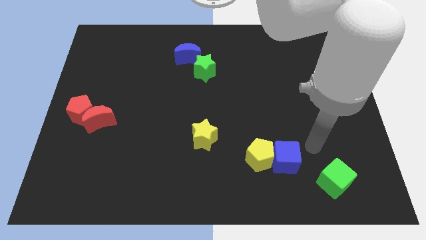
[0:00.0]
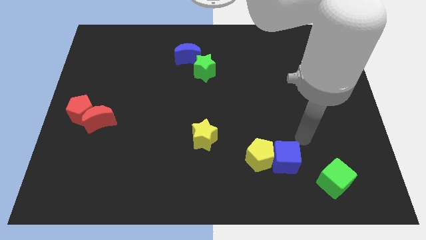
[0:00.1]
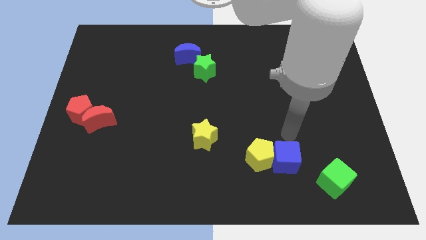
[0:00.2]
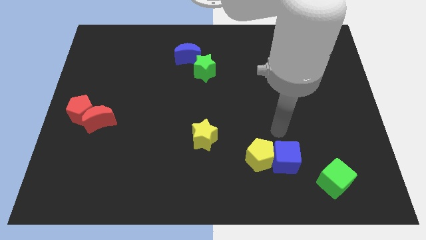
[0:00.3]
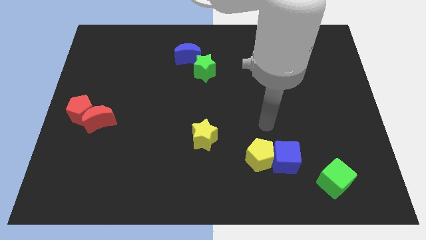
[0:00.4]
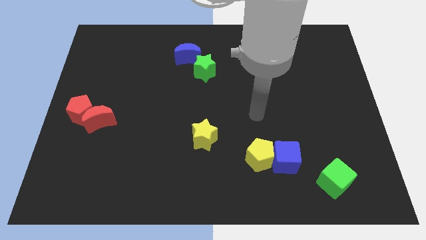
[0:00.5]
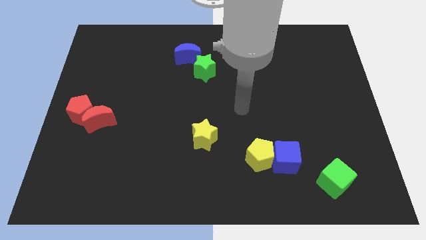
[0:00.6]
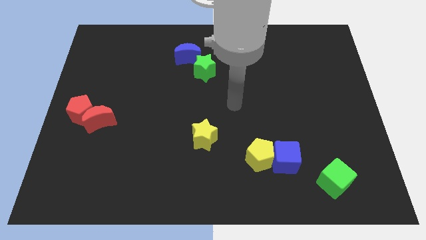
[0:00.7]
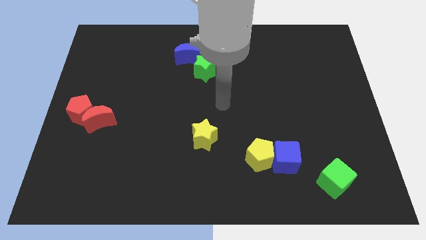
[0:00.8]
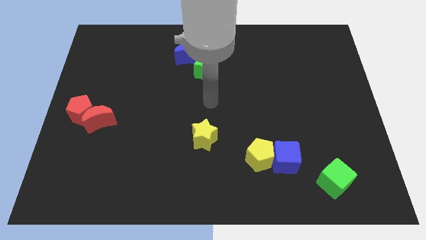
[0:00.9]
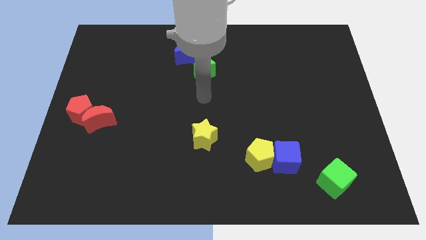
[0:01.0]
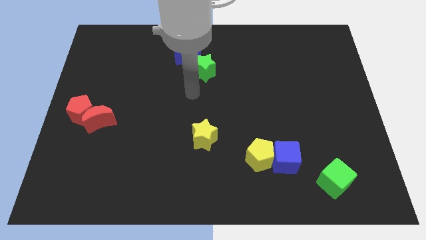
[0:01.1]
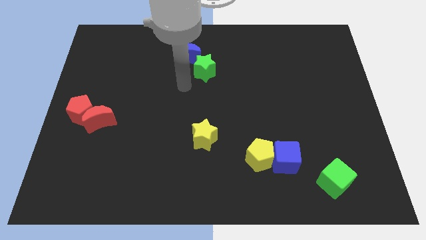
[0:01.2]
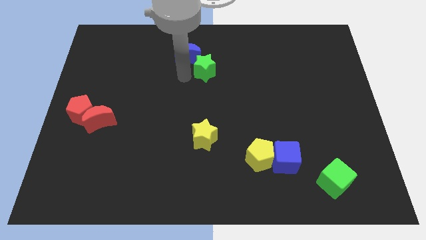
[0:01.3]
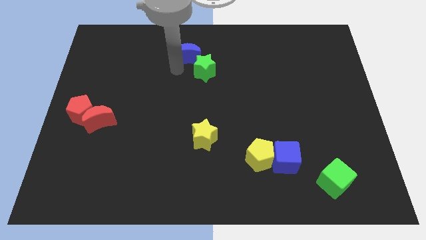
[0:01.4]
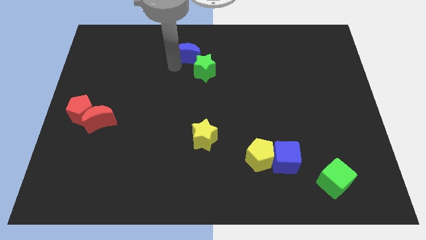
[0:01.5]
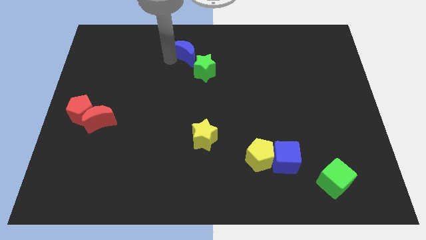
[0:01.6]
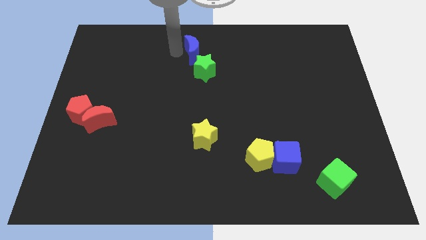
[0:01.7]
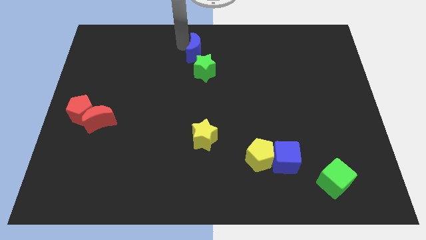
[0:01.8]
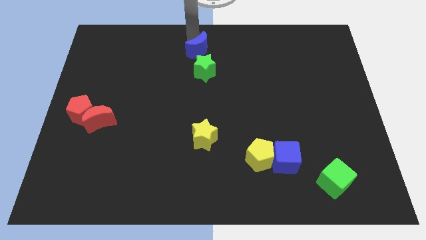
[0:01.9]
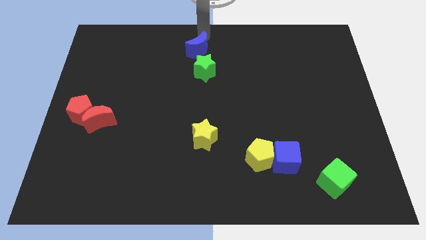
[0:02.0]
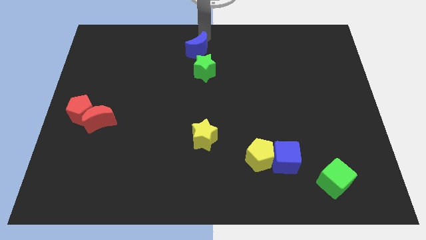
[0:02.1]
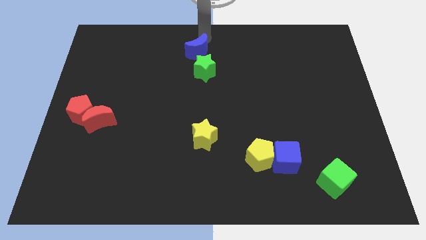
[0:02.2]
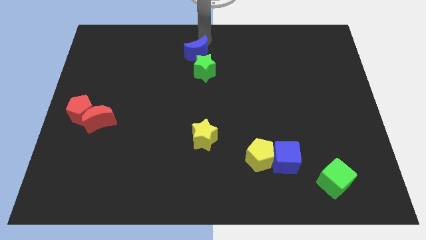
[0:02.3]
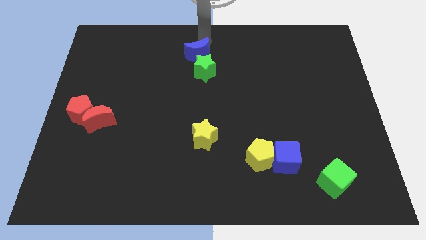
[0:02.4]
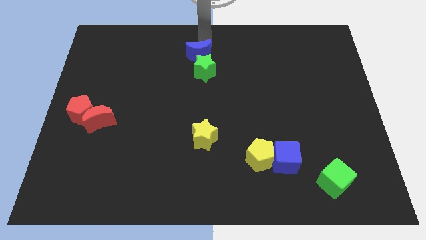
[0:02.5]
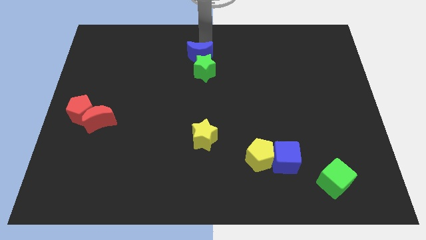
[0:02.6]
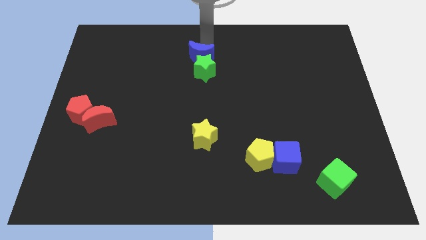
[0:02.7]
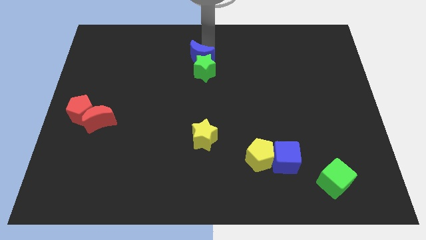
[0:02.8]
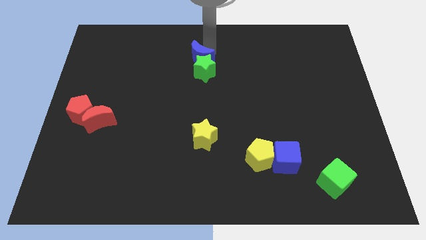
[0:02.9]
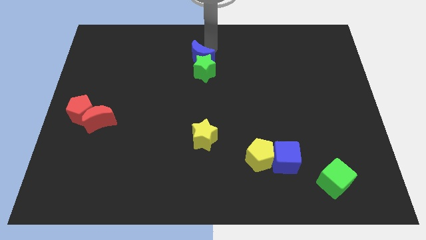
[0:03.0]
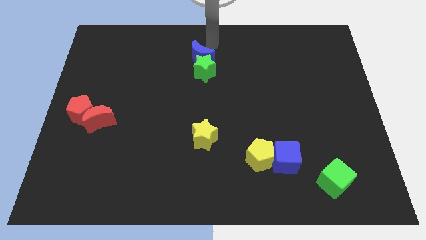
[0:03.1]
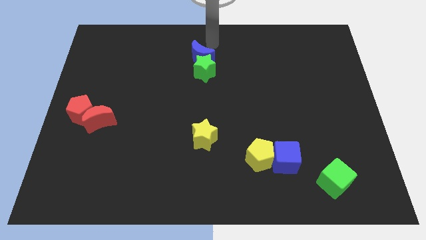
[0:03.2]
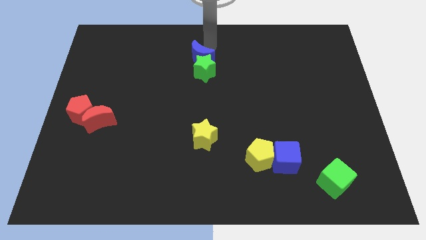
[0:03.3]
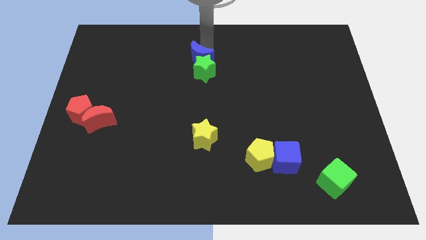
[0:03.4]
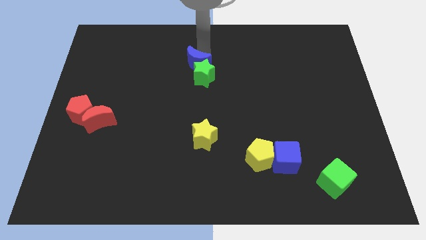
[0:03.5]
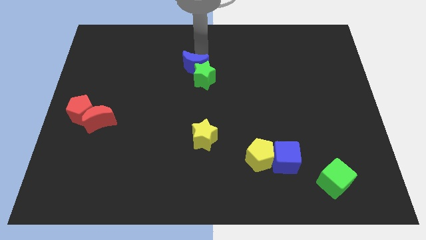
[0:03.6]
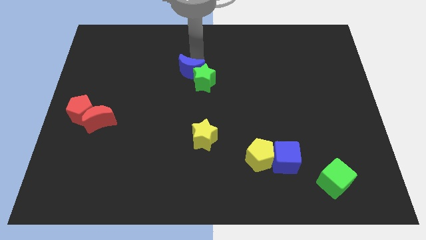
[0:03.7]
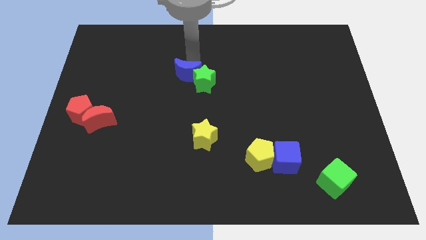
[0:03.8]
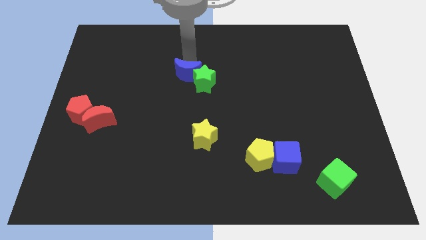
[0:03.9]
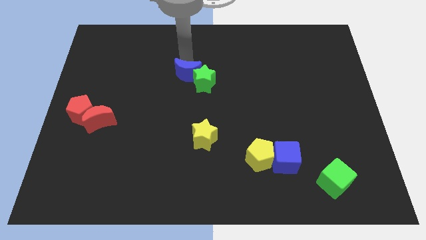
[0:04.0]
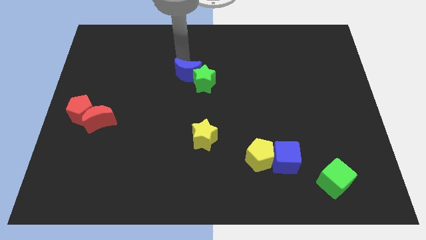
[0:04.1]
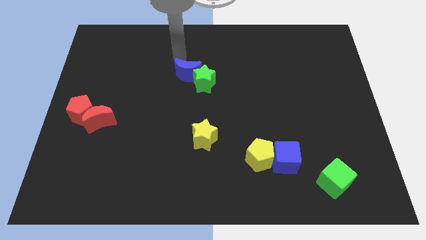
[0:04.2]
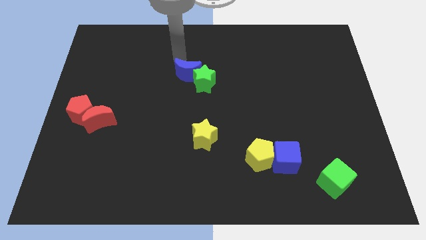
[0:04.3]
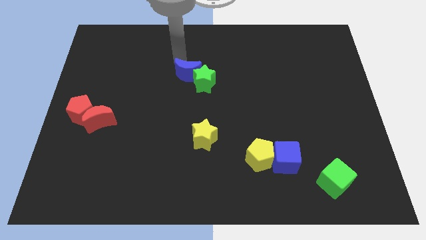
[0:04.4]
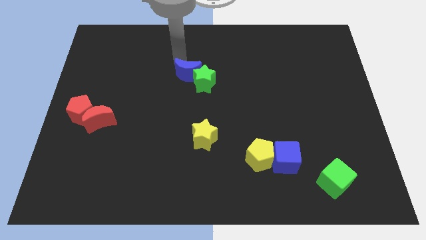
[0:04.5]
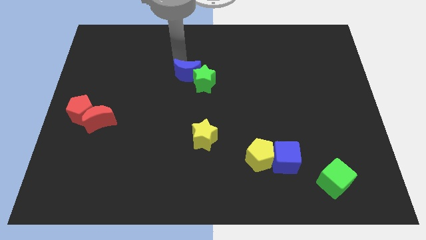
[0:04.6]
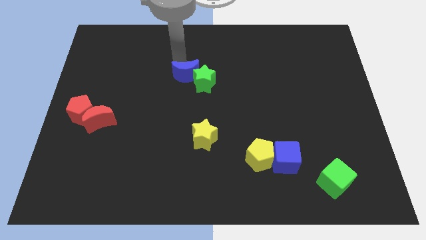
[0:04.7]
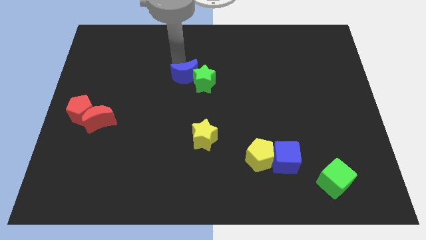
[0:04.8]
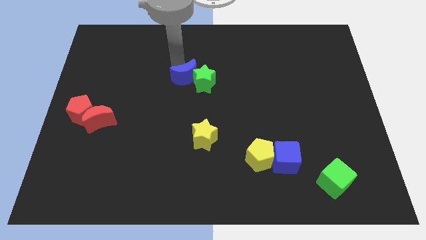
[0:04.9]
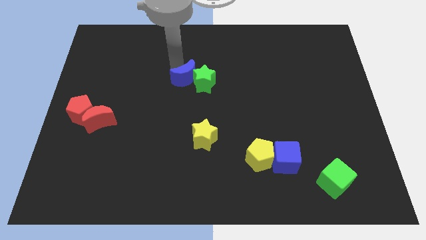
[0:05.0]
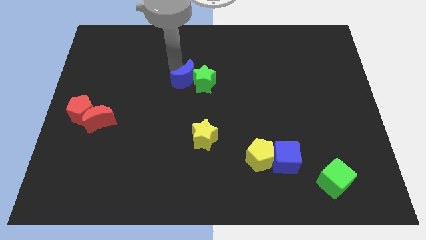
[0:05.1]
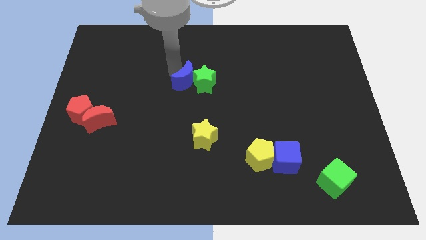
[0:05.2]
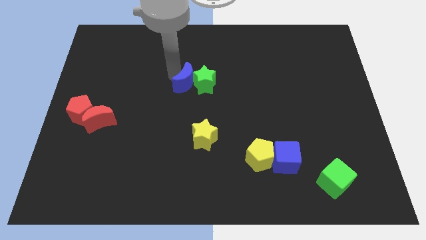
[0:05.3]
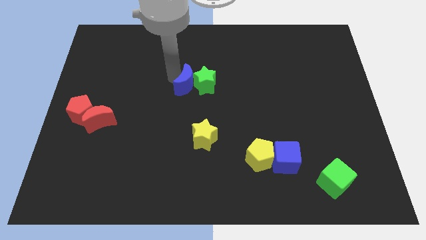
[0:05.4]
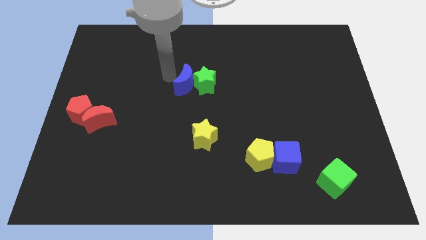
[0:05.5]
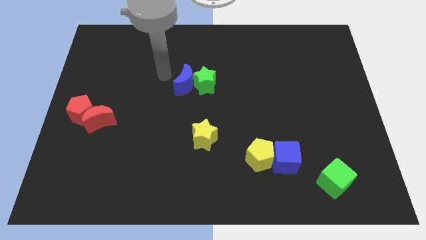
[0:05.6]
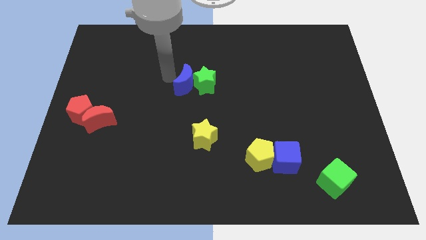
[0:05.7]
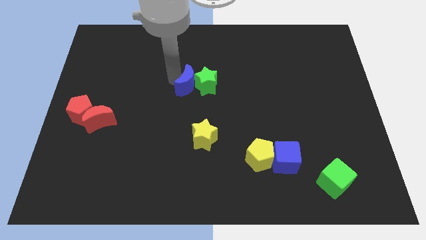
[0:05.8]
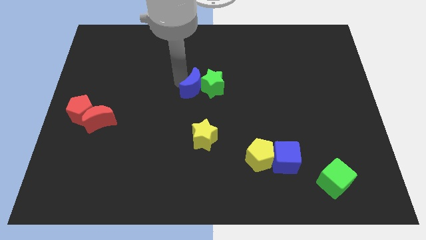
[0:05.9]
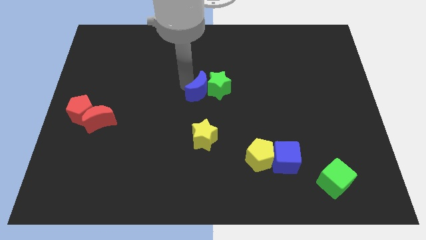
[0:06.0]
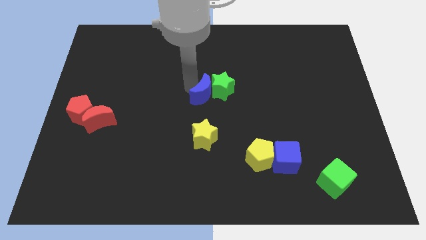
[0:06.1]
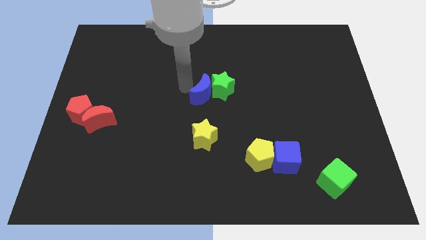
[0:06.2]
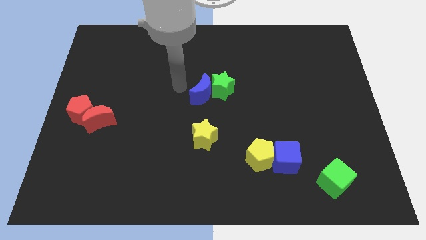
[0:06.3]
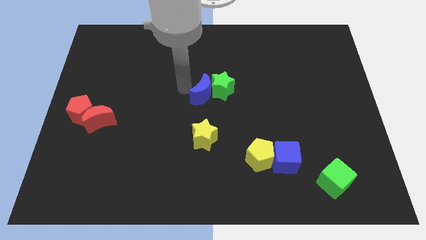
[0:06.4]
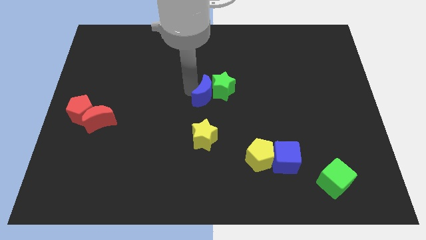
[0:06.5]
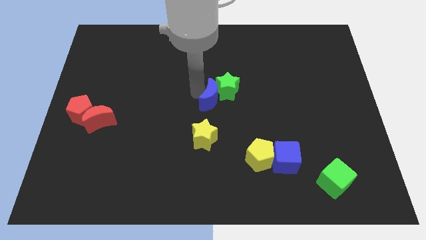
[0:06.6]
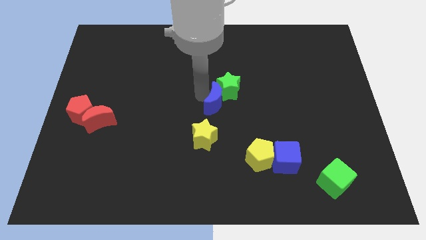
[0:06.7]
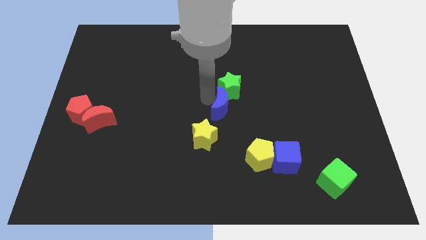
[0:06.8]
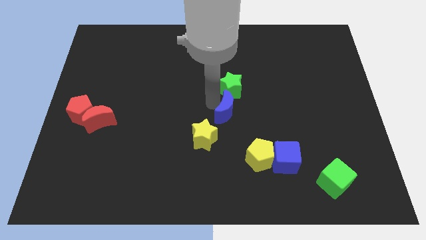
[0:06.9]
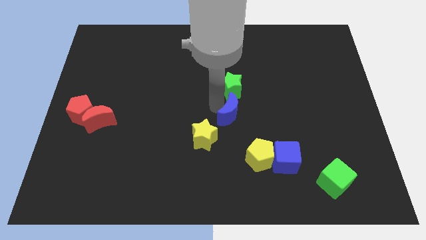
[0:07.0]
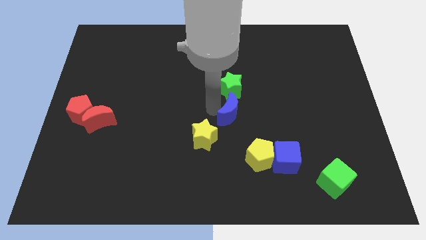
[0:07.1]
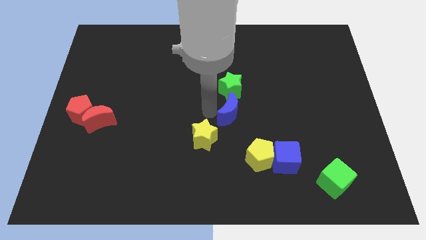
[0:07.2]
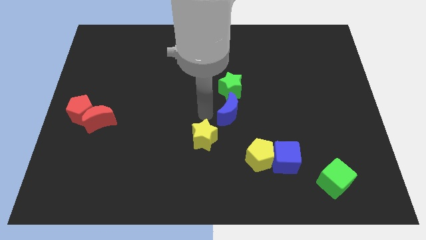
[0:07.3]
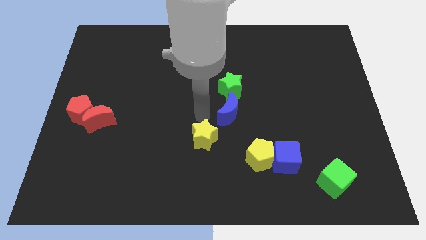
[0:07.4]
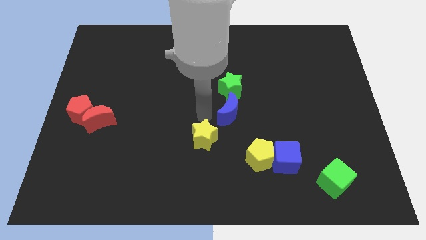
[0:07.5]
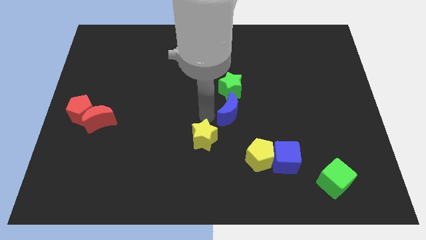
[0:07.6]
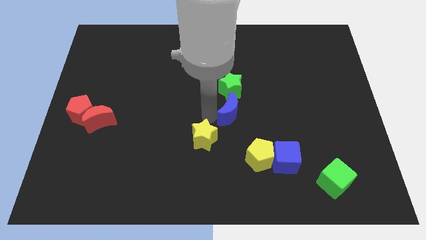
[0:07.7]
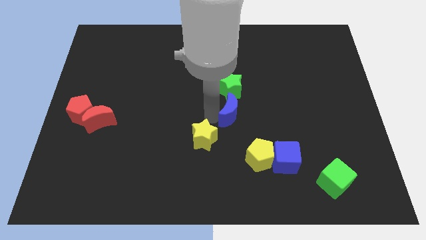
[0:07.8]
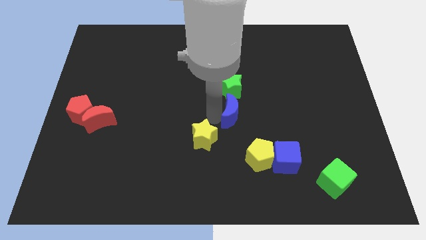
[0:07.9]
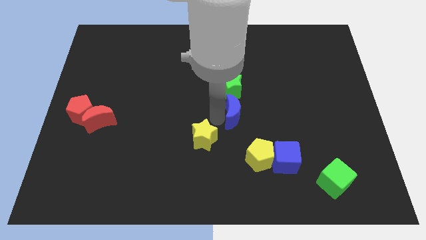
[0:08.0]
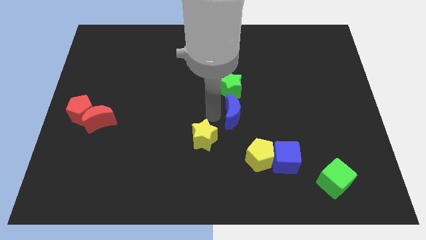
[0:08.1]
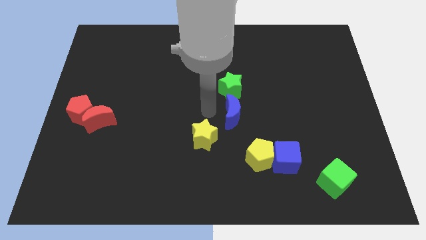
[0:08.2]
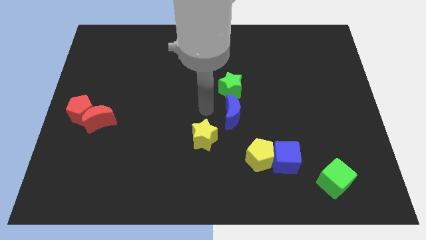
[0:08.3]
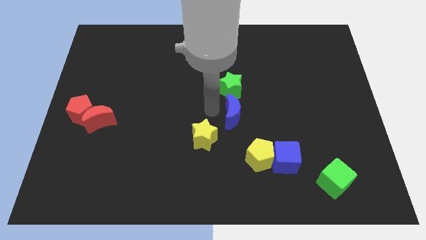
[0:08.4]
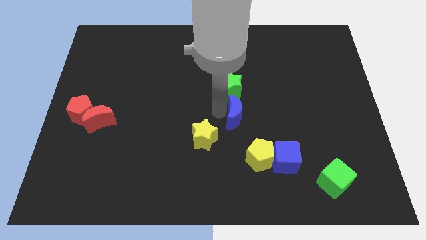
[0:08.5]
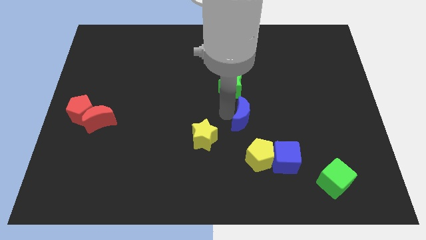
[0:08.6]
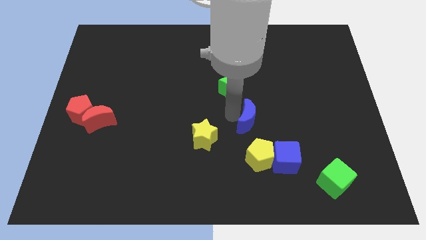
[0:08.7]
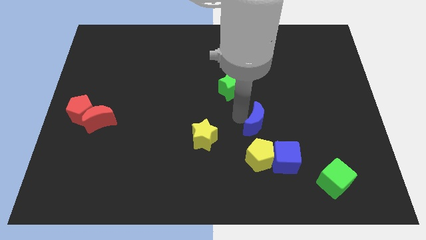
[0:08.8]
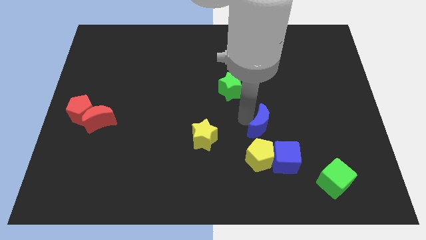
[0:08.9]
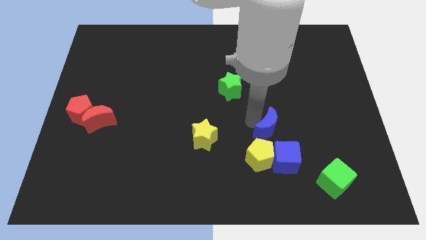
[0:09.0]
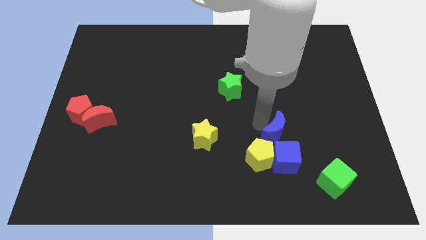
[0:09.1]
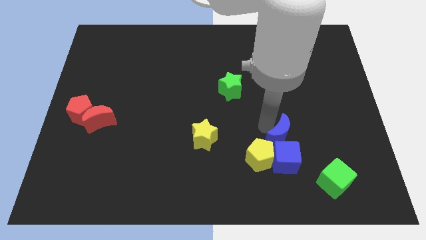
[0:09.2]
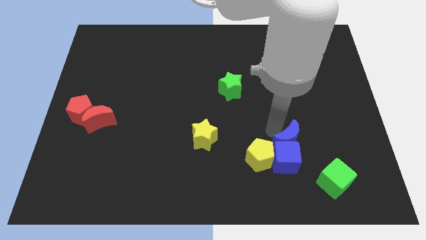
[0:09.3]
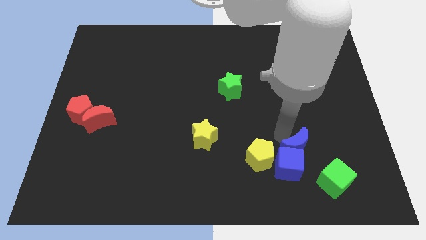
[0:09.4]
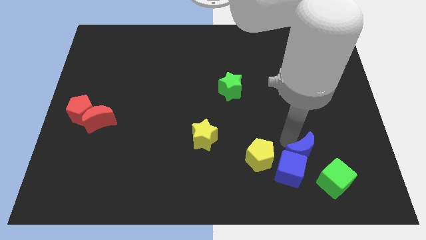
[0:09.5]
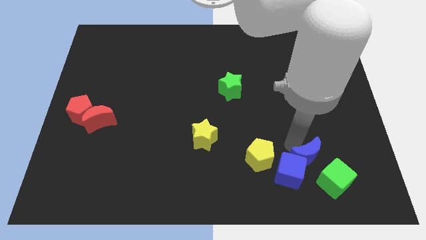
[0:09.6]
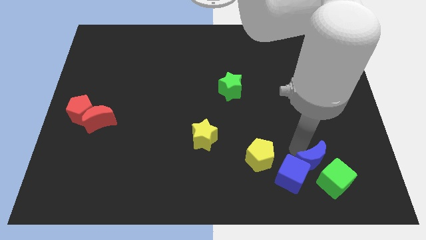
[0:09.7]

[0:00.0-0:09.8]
move the blue moon next to the green cube
